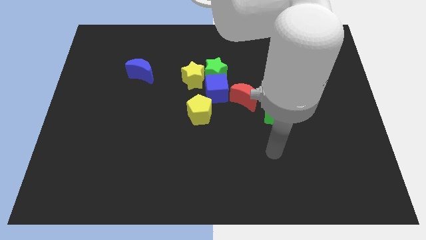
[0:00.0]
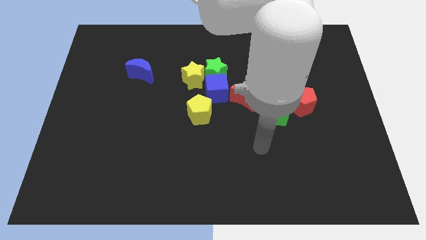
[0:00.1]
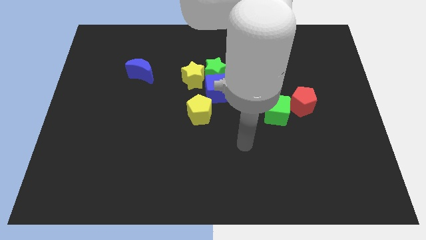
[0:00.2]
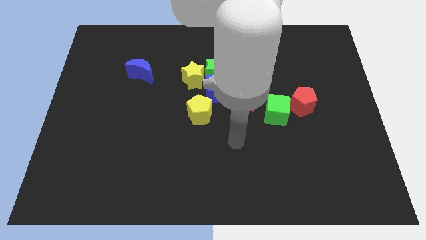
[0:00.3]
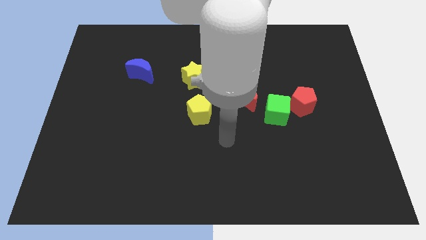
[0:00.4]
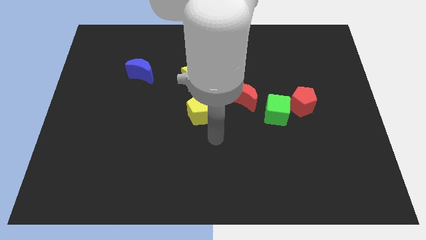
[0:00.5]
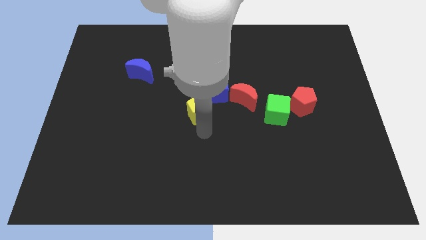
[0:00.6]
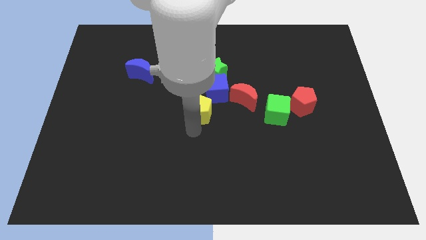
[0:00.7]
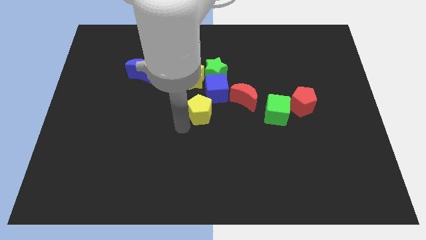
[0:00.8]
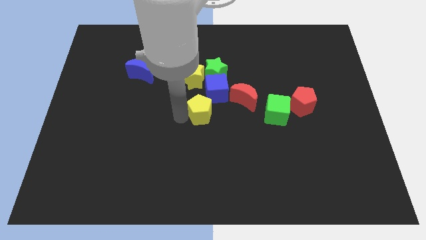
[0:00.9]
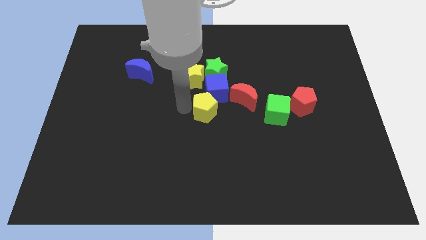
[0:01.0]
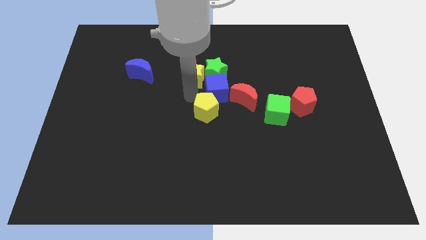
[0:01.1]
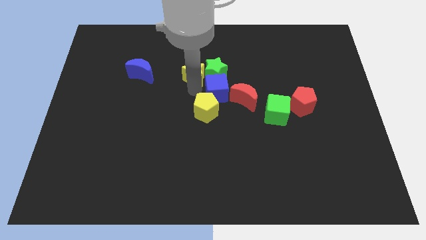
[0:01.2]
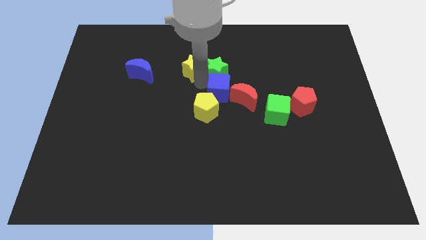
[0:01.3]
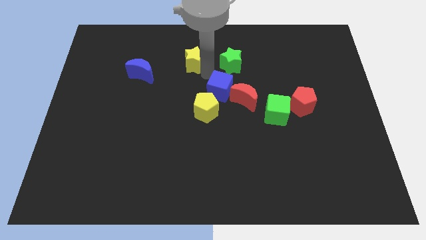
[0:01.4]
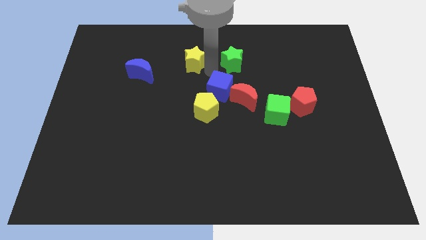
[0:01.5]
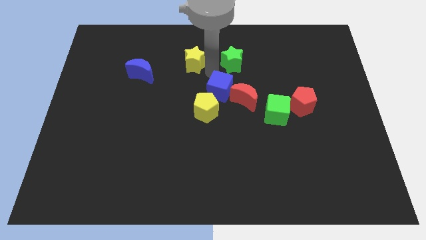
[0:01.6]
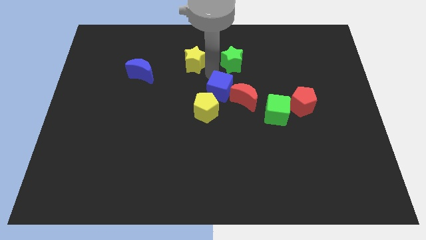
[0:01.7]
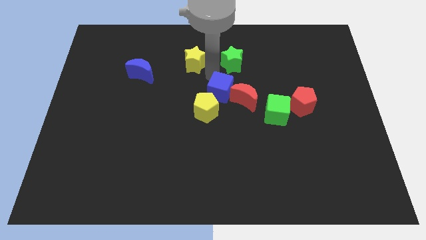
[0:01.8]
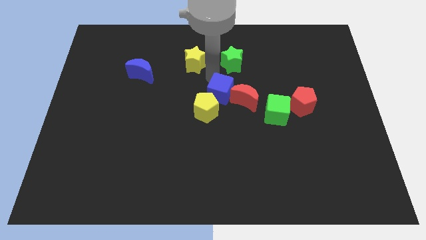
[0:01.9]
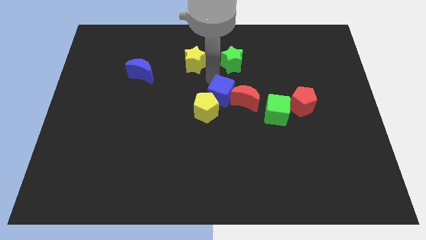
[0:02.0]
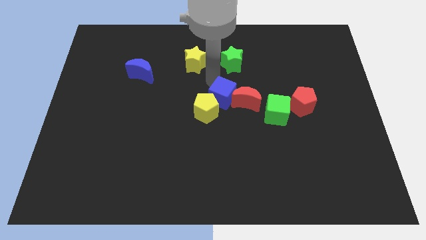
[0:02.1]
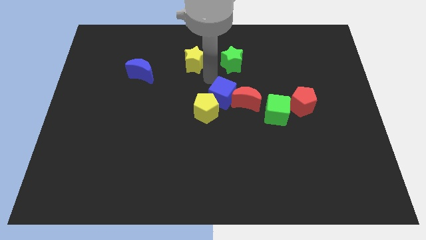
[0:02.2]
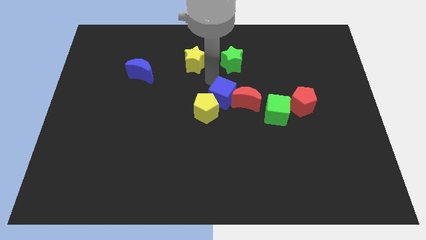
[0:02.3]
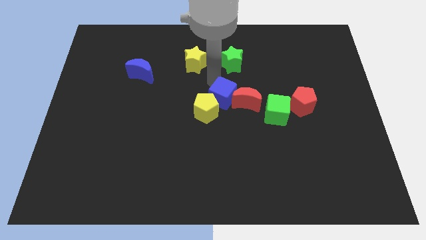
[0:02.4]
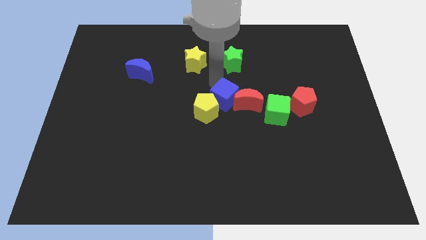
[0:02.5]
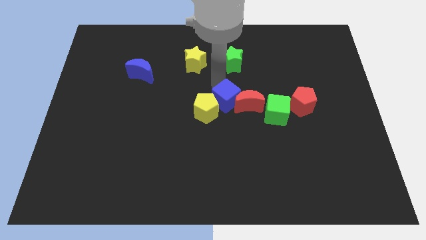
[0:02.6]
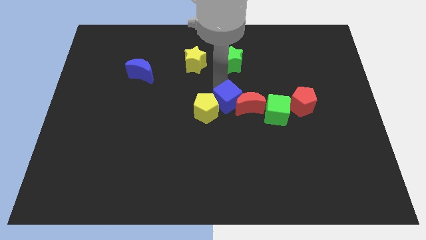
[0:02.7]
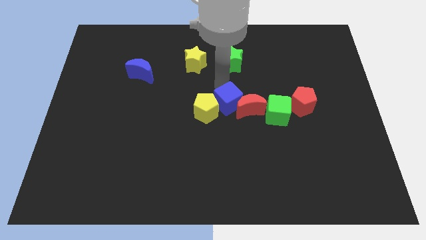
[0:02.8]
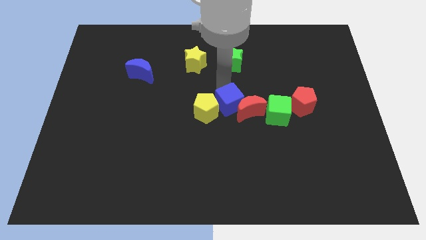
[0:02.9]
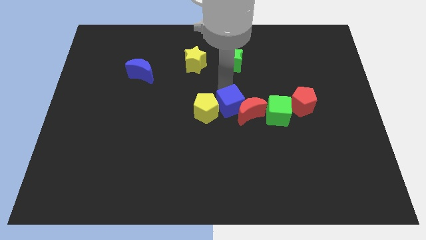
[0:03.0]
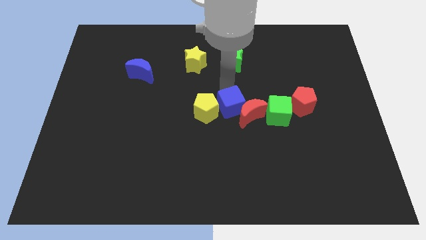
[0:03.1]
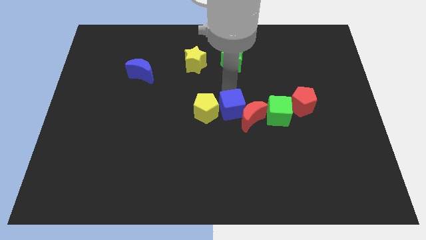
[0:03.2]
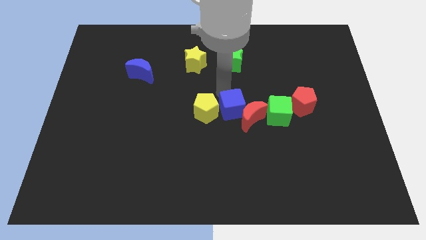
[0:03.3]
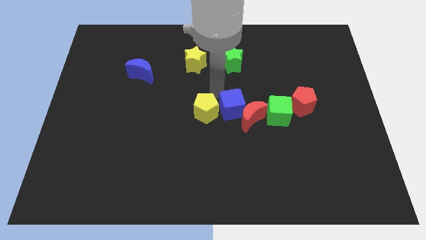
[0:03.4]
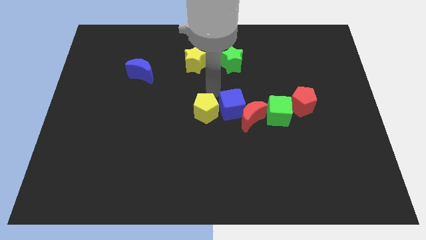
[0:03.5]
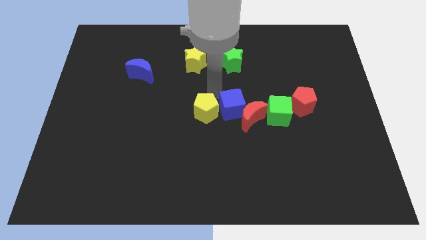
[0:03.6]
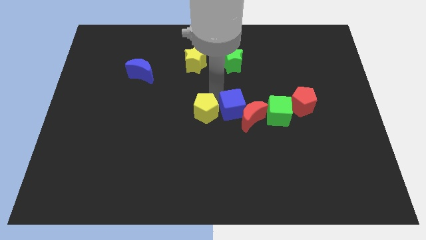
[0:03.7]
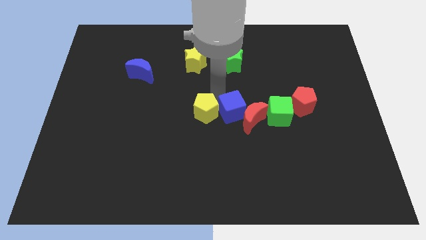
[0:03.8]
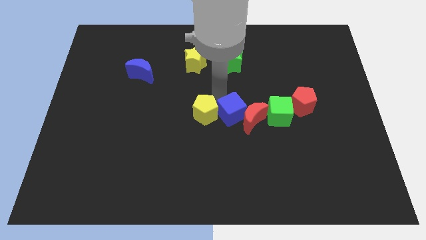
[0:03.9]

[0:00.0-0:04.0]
slightly move the blue cube down and right diagonally

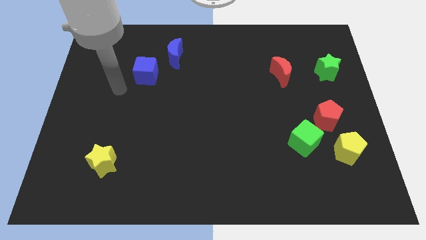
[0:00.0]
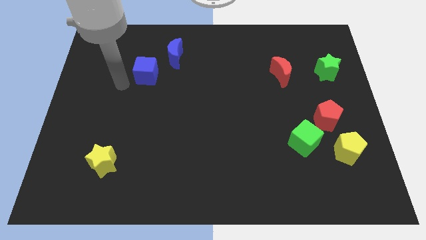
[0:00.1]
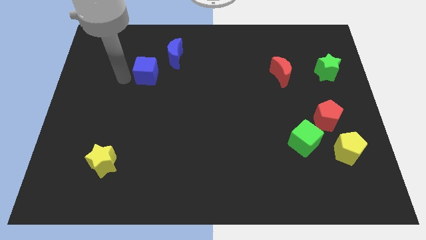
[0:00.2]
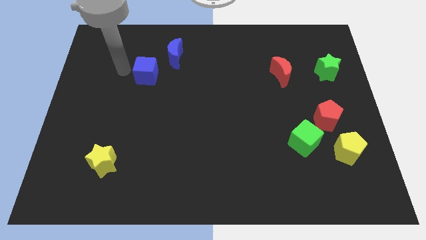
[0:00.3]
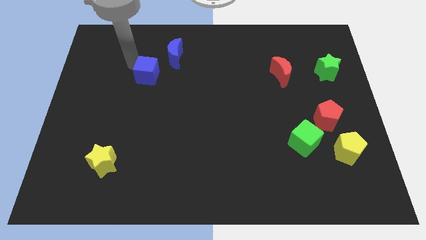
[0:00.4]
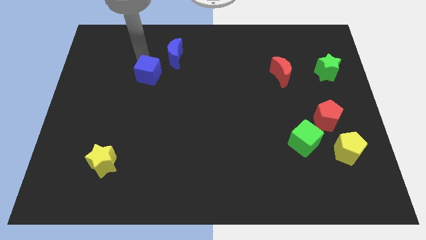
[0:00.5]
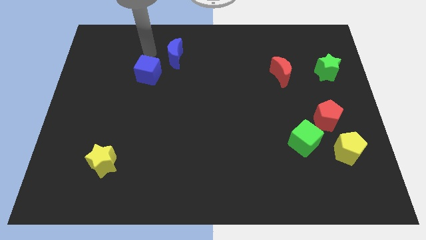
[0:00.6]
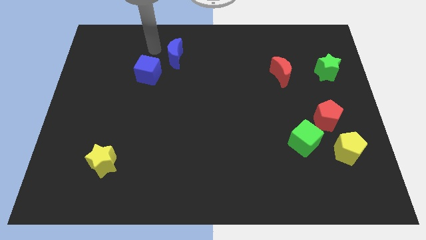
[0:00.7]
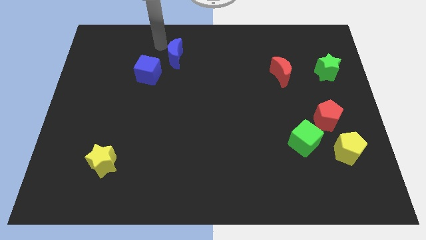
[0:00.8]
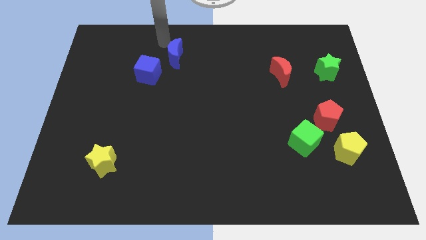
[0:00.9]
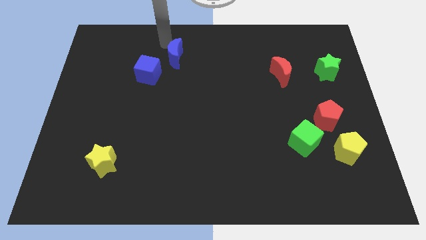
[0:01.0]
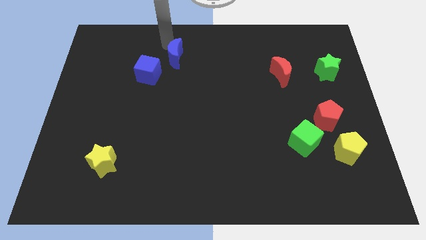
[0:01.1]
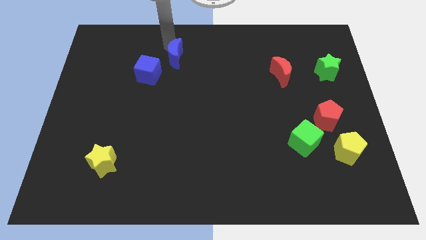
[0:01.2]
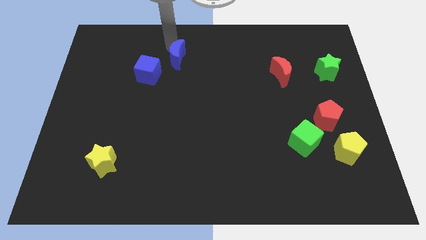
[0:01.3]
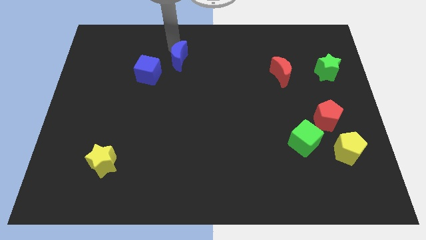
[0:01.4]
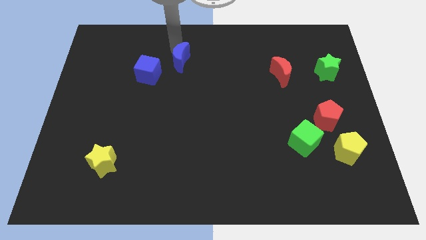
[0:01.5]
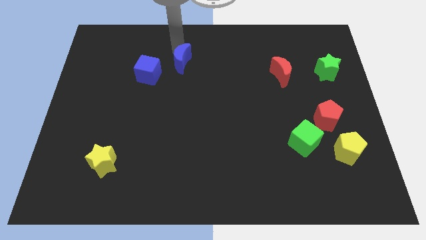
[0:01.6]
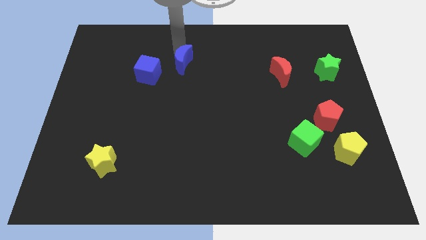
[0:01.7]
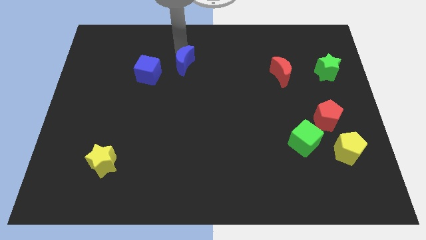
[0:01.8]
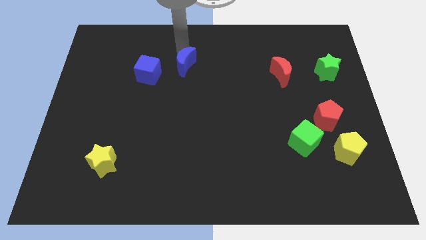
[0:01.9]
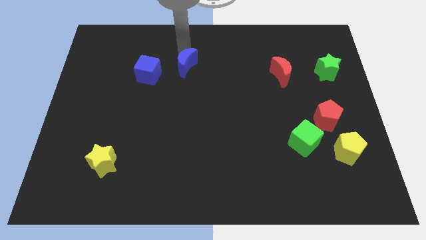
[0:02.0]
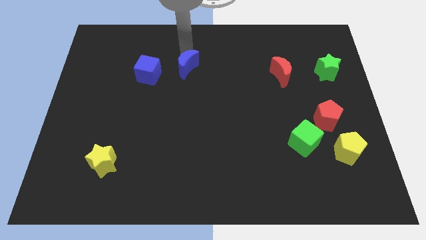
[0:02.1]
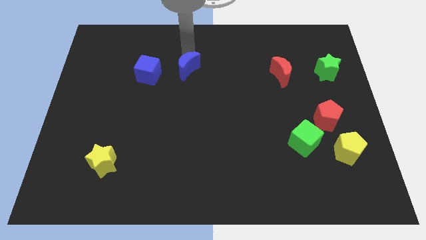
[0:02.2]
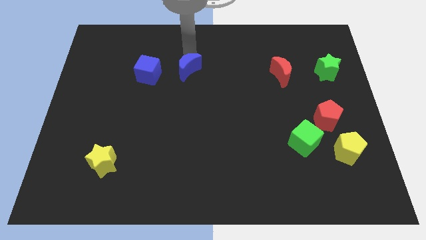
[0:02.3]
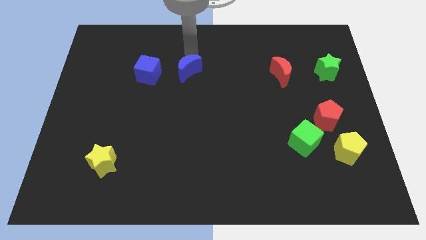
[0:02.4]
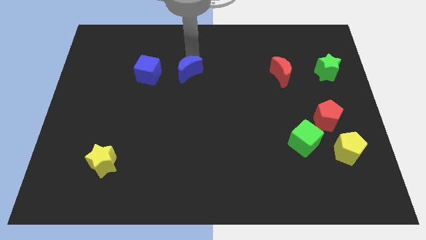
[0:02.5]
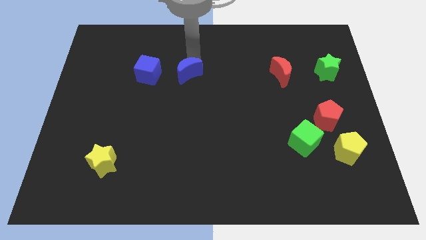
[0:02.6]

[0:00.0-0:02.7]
move the blue moon a bit diagonally down and to the right

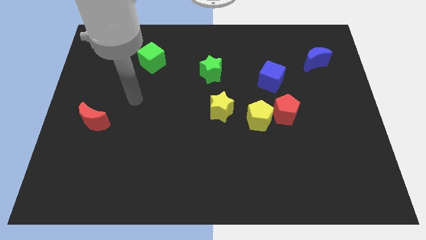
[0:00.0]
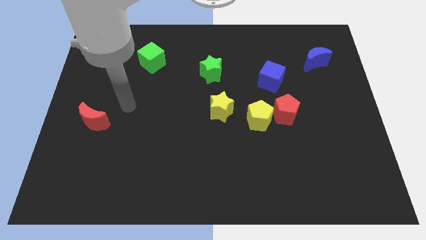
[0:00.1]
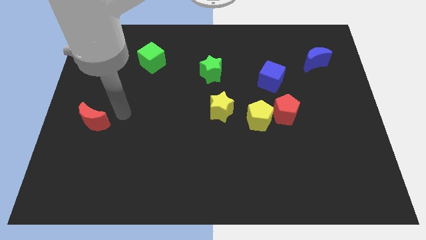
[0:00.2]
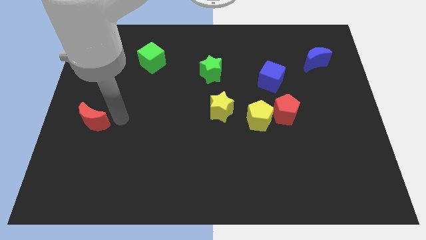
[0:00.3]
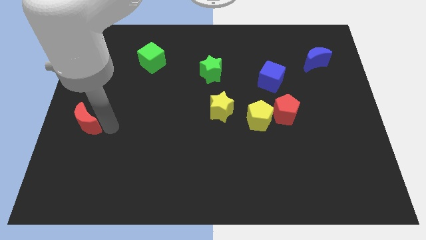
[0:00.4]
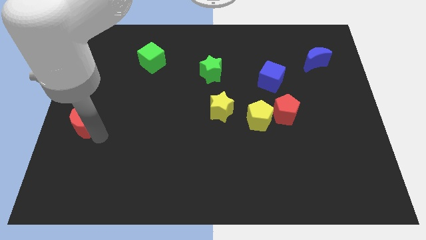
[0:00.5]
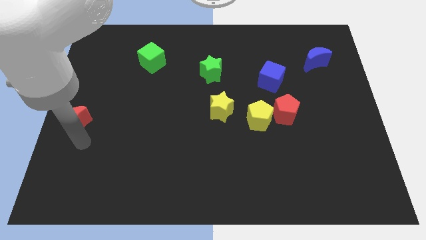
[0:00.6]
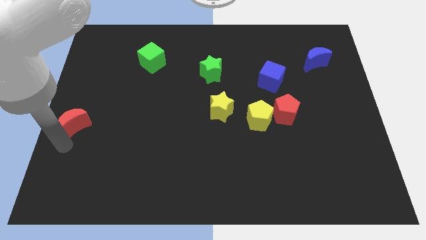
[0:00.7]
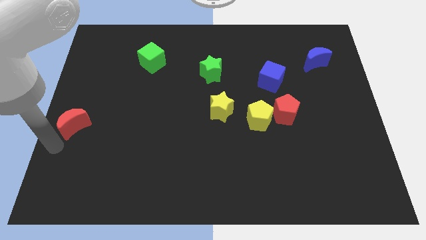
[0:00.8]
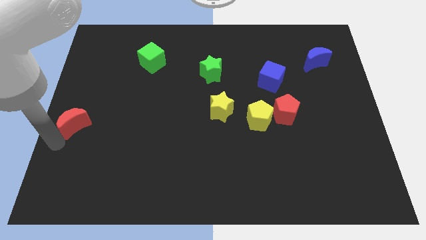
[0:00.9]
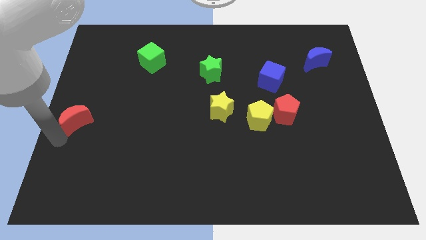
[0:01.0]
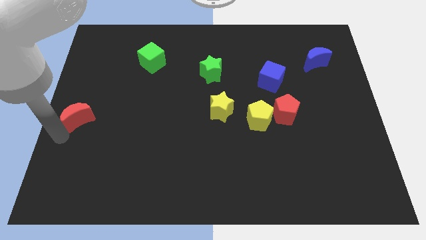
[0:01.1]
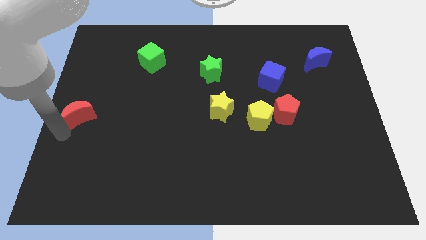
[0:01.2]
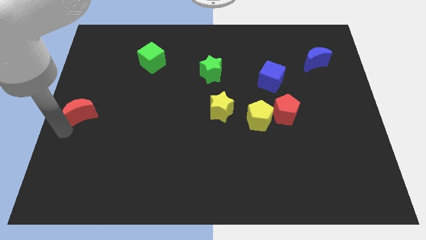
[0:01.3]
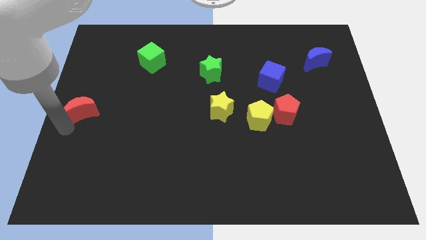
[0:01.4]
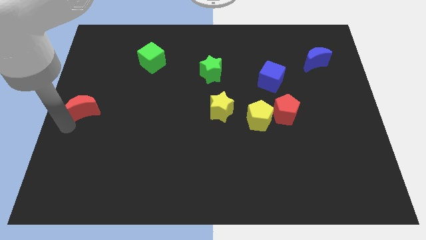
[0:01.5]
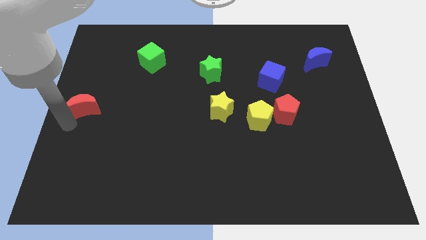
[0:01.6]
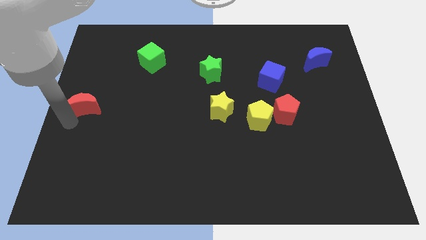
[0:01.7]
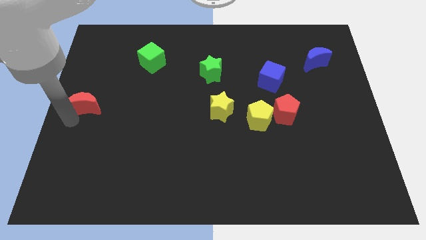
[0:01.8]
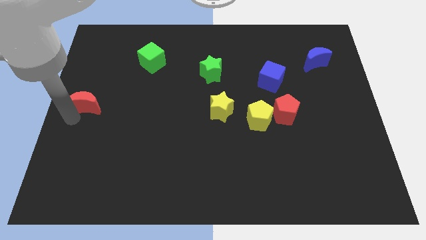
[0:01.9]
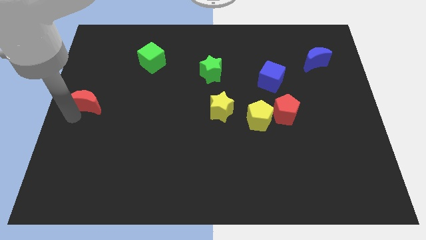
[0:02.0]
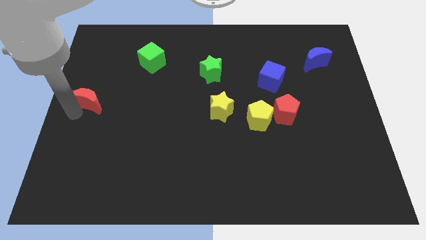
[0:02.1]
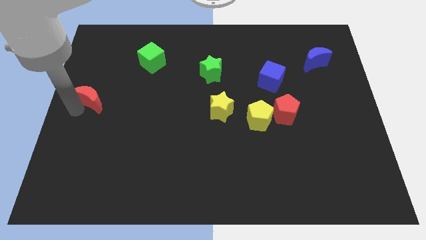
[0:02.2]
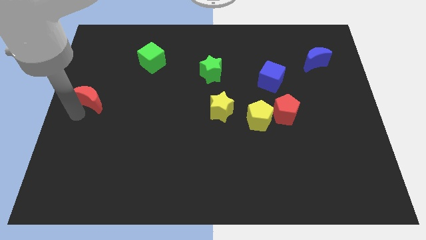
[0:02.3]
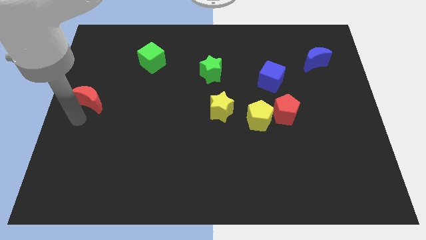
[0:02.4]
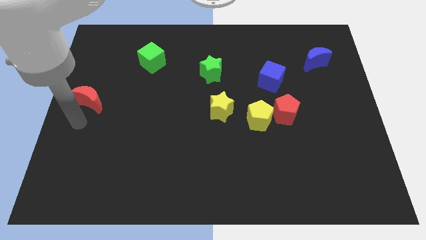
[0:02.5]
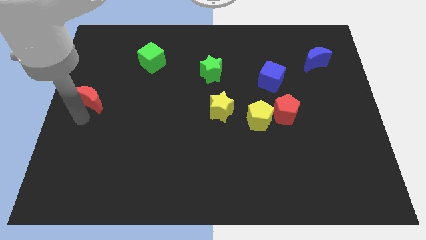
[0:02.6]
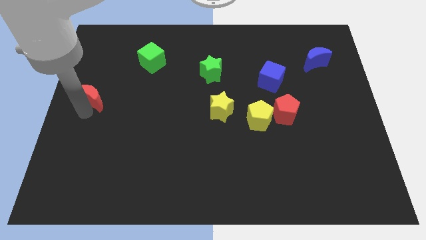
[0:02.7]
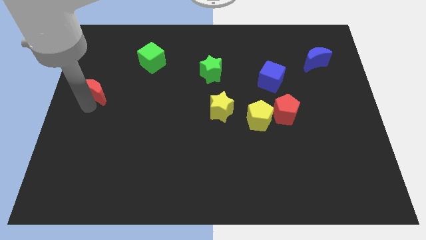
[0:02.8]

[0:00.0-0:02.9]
push the red moon up somewhat
